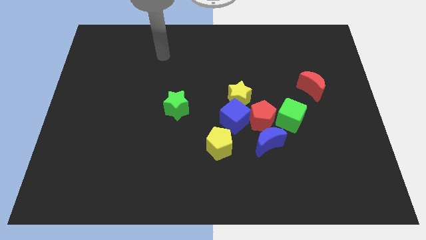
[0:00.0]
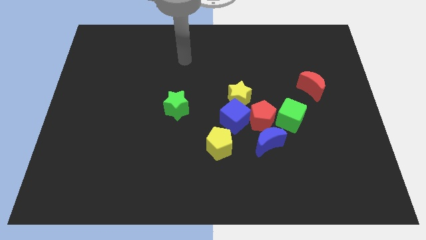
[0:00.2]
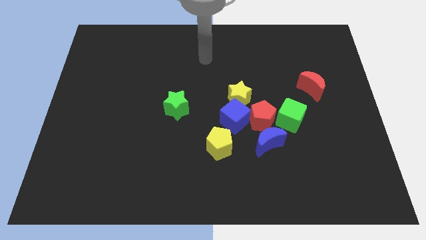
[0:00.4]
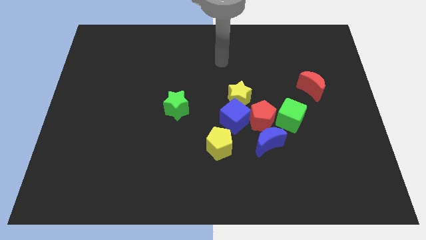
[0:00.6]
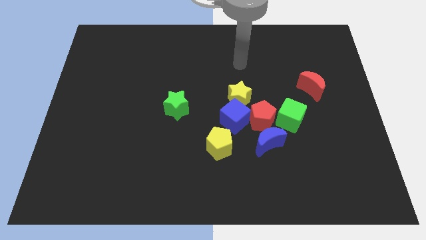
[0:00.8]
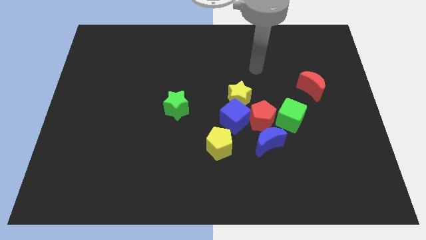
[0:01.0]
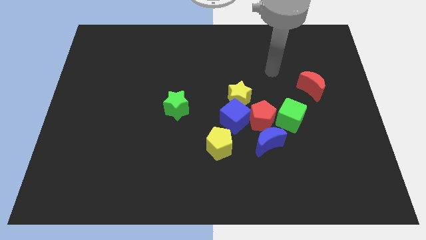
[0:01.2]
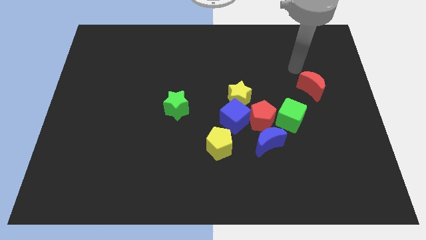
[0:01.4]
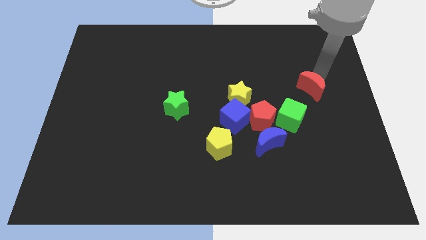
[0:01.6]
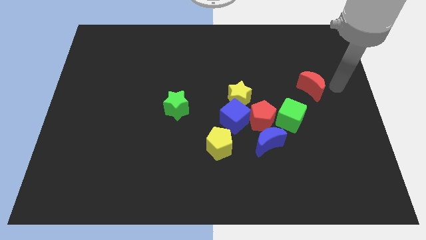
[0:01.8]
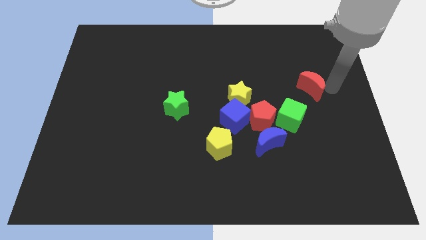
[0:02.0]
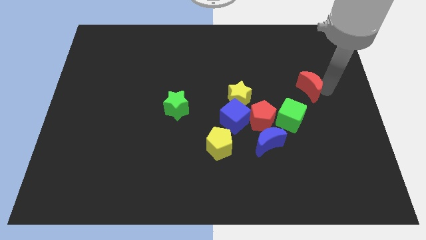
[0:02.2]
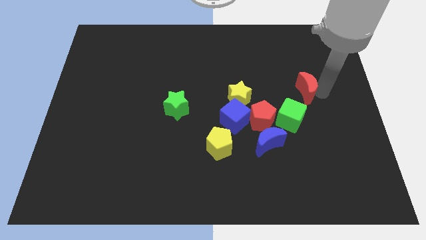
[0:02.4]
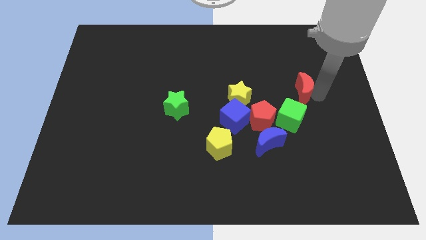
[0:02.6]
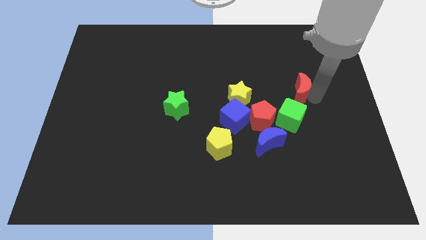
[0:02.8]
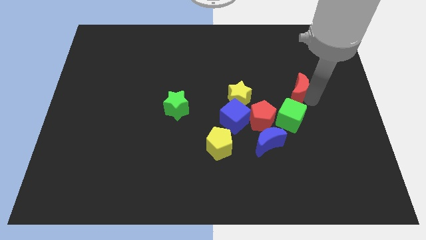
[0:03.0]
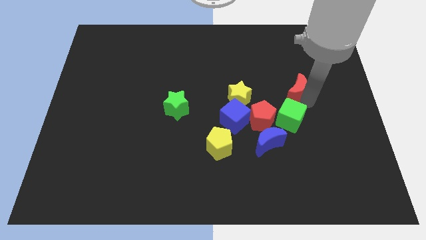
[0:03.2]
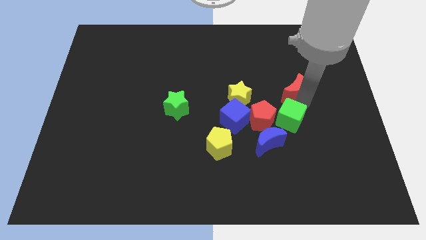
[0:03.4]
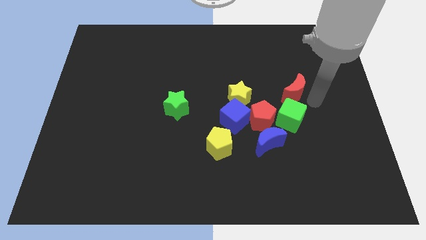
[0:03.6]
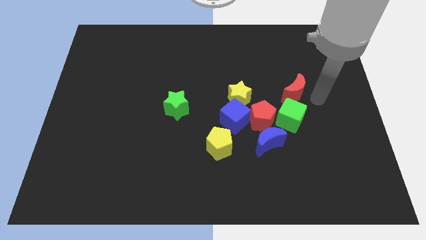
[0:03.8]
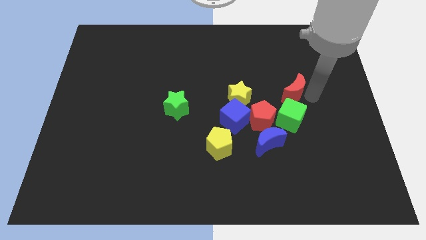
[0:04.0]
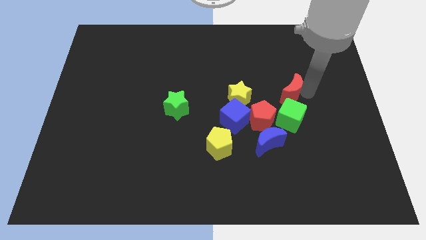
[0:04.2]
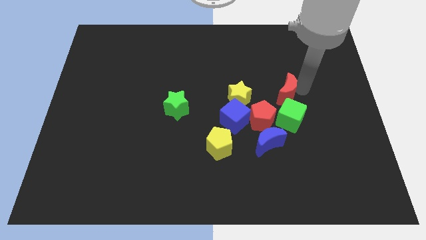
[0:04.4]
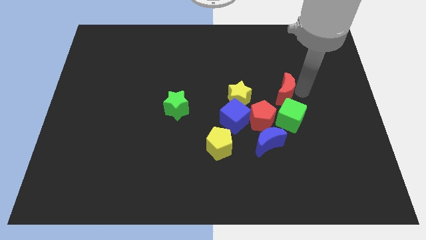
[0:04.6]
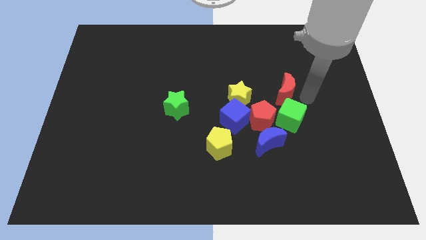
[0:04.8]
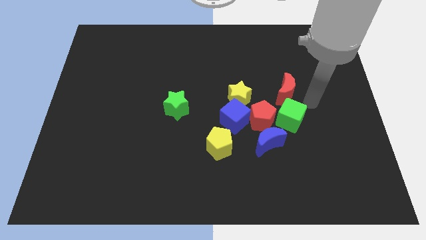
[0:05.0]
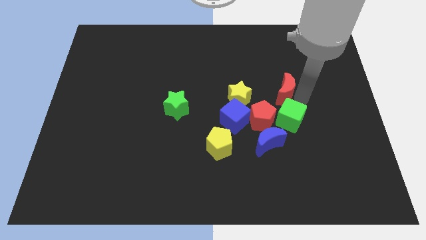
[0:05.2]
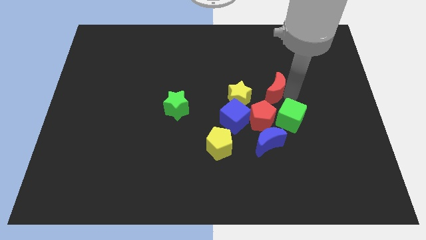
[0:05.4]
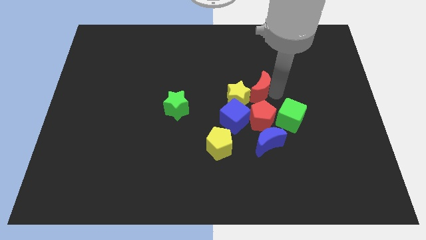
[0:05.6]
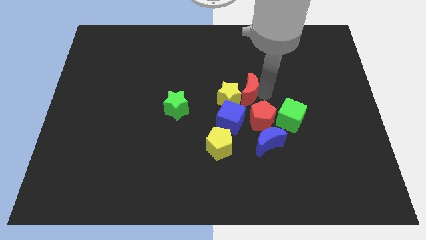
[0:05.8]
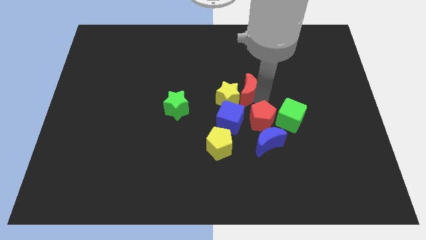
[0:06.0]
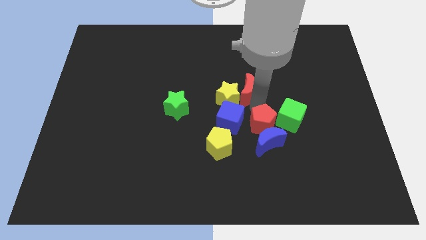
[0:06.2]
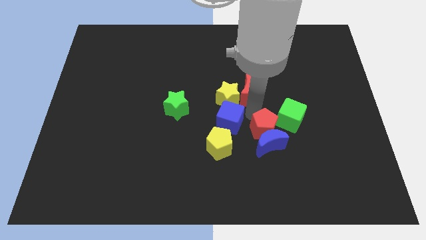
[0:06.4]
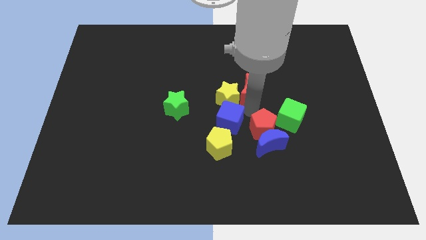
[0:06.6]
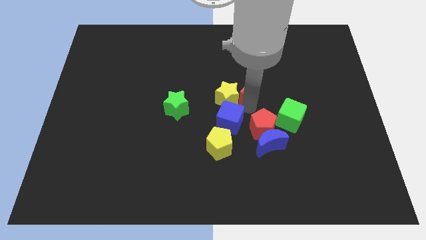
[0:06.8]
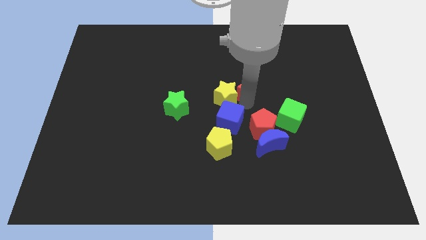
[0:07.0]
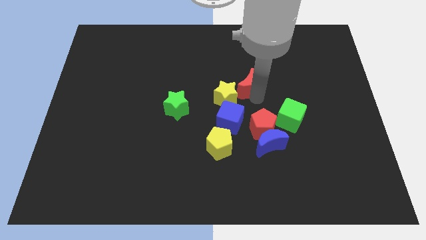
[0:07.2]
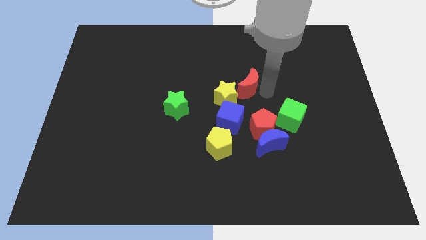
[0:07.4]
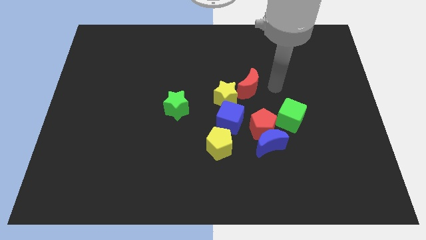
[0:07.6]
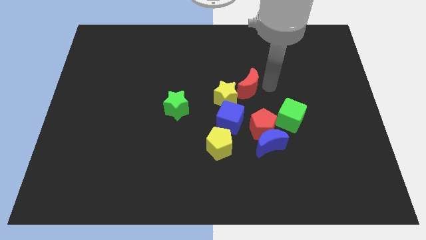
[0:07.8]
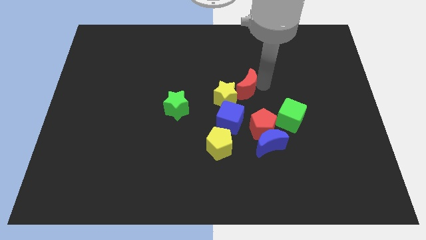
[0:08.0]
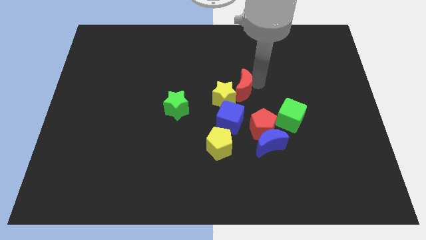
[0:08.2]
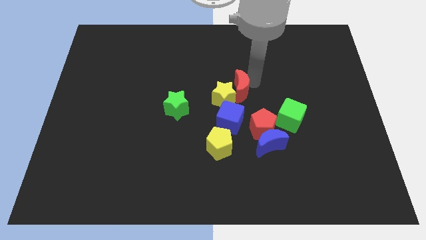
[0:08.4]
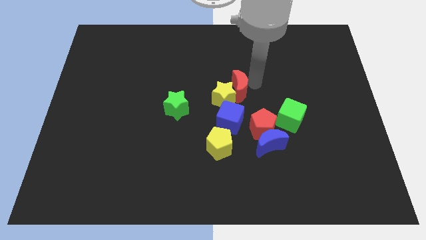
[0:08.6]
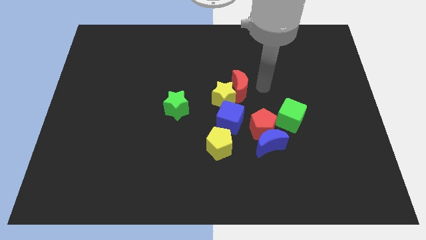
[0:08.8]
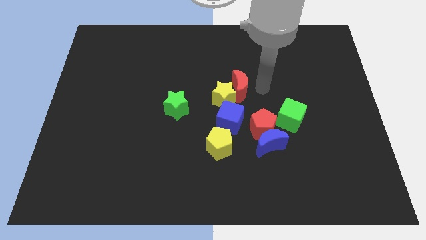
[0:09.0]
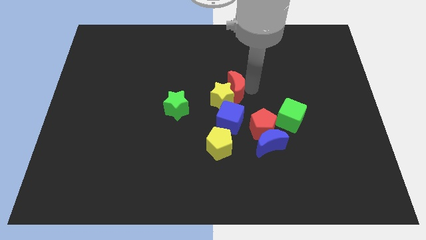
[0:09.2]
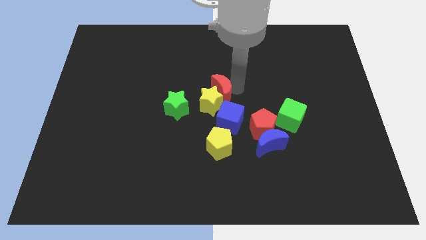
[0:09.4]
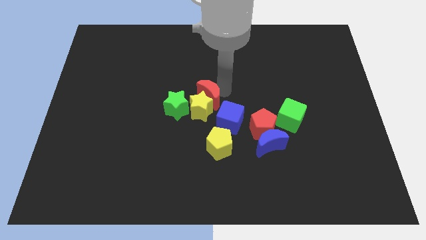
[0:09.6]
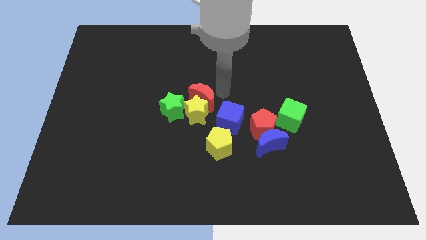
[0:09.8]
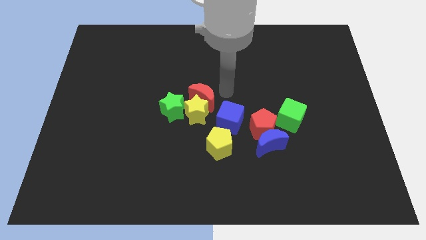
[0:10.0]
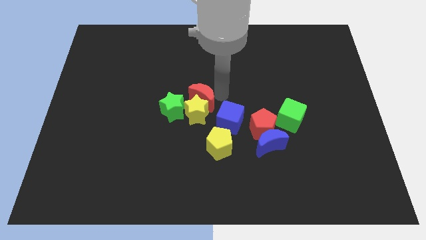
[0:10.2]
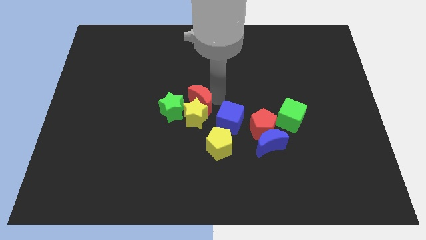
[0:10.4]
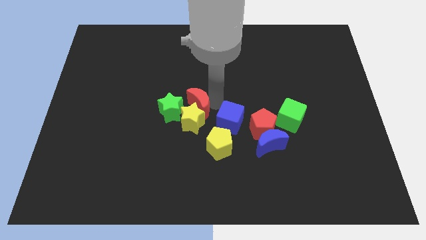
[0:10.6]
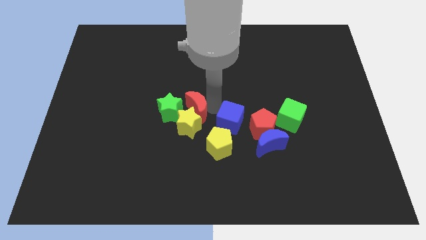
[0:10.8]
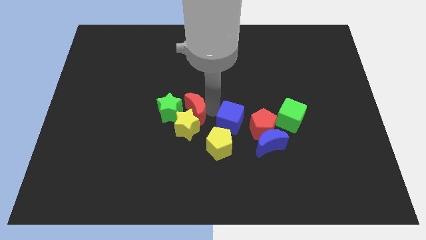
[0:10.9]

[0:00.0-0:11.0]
slide the red moon next to the green star

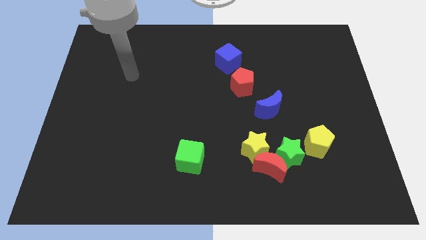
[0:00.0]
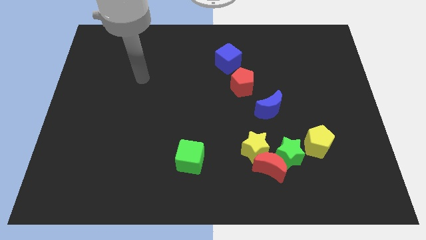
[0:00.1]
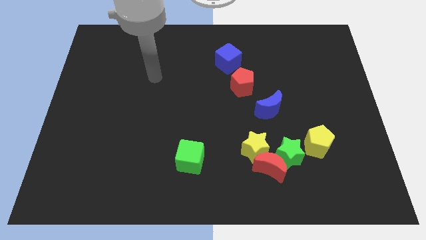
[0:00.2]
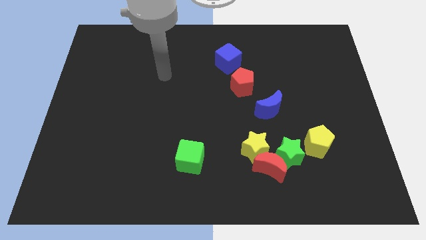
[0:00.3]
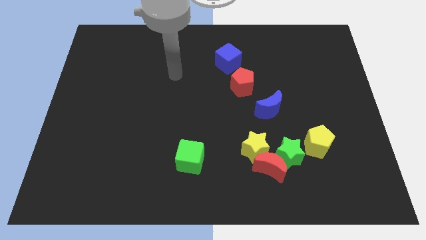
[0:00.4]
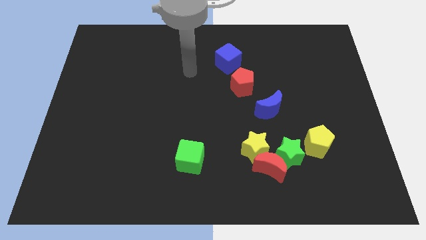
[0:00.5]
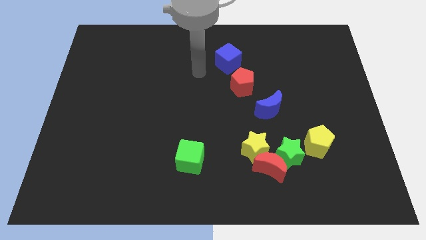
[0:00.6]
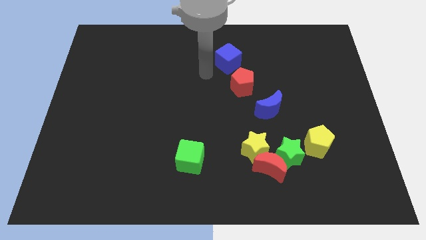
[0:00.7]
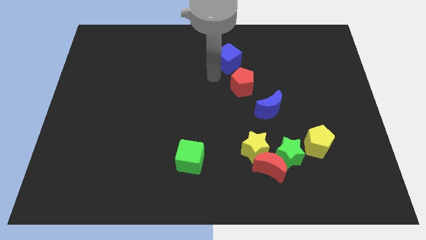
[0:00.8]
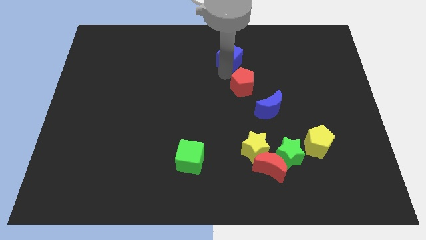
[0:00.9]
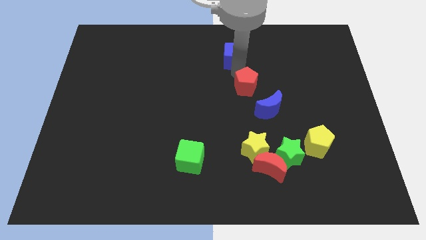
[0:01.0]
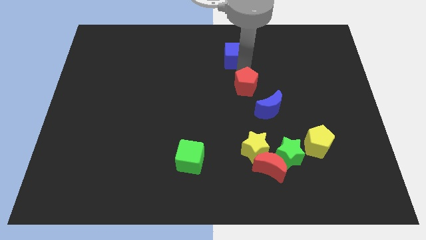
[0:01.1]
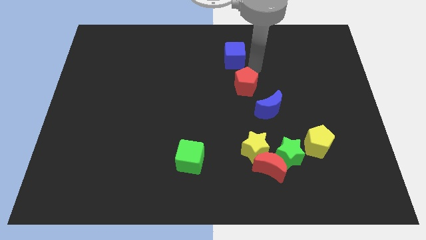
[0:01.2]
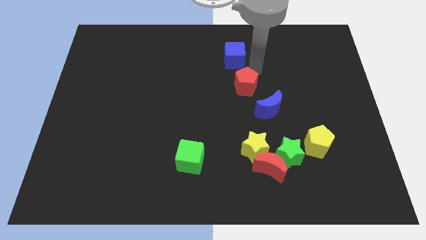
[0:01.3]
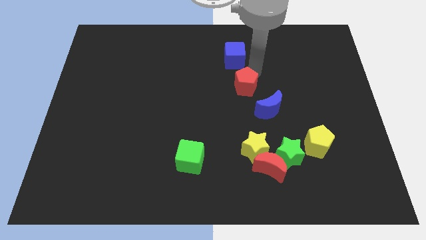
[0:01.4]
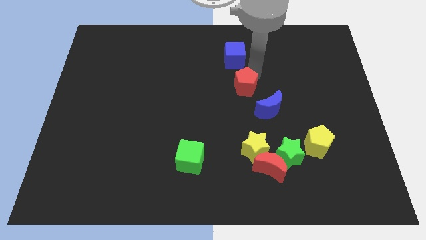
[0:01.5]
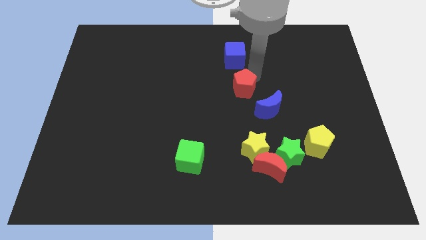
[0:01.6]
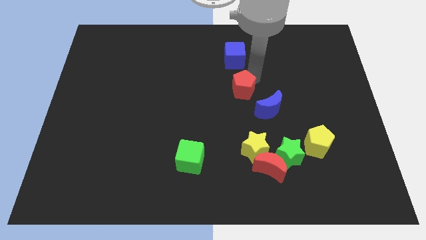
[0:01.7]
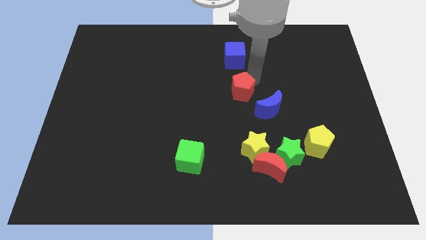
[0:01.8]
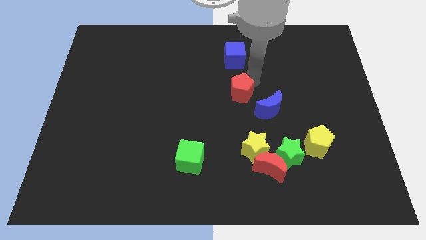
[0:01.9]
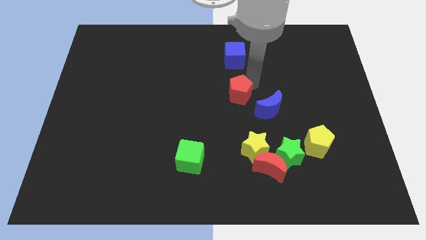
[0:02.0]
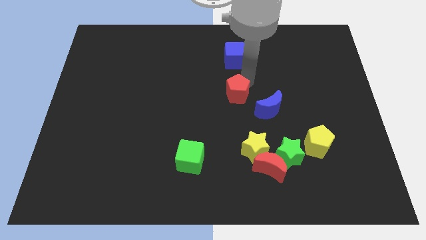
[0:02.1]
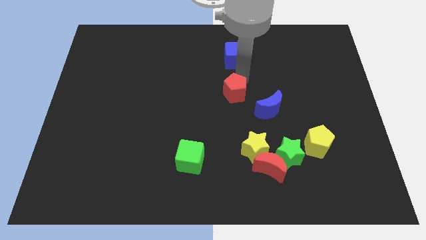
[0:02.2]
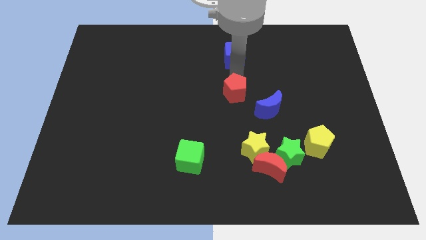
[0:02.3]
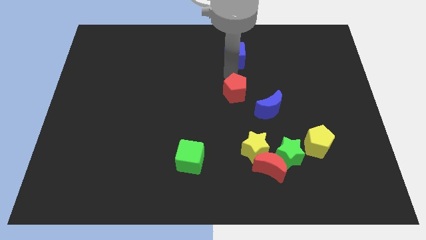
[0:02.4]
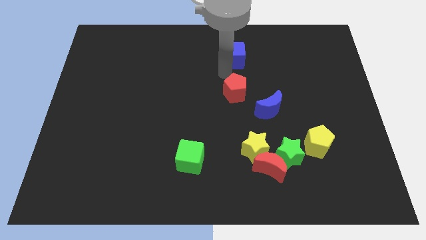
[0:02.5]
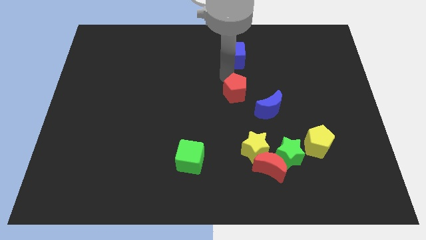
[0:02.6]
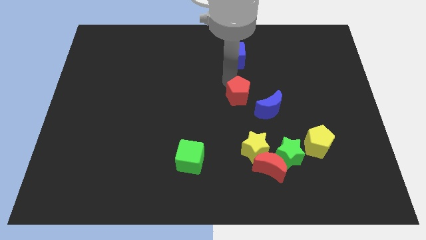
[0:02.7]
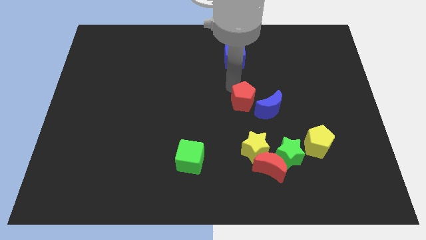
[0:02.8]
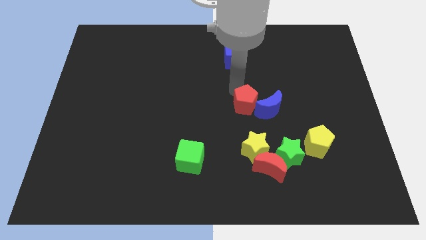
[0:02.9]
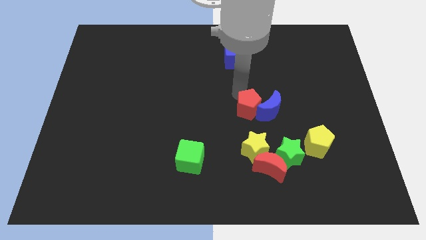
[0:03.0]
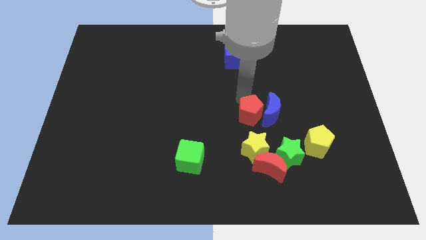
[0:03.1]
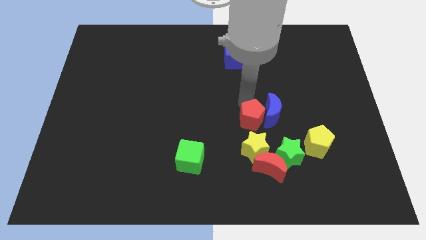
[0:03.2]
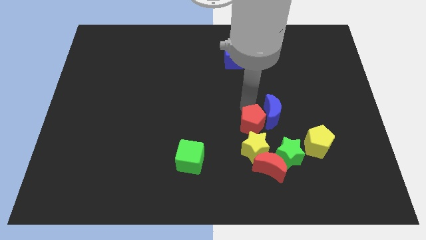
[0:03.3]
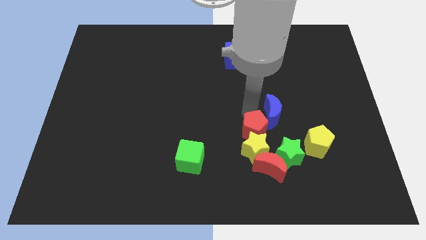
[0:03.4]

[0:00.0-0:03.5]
move the red pentagon next to the yellow star
